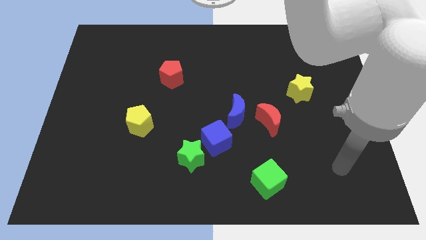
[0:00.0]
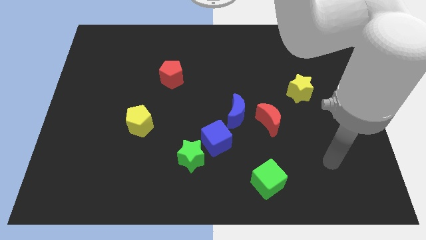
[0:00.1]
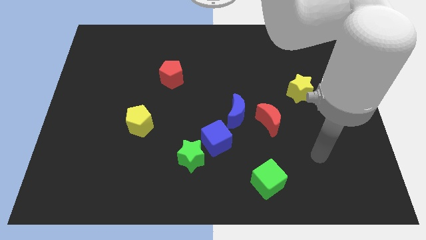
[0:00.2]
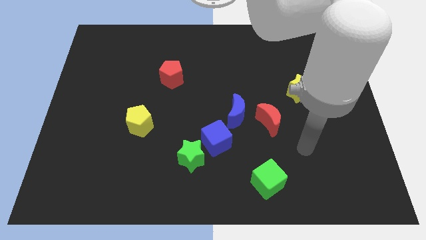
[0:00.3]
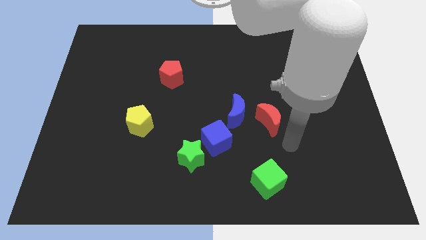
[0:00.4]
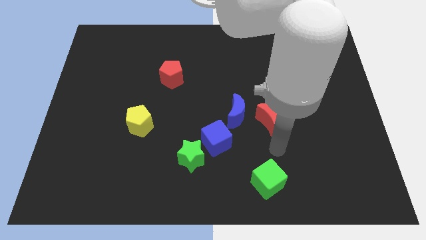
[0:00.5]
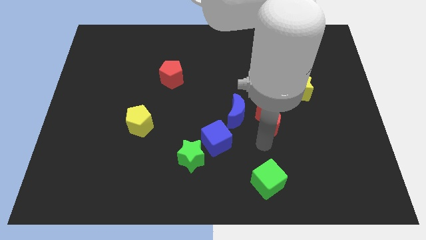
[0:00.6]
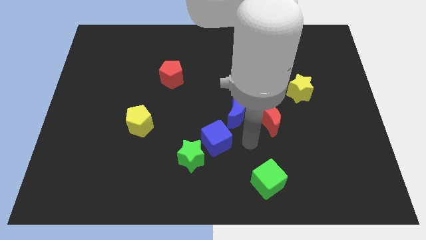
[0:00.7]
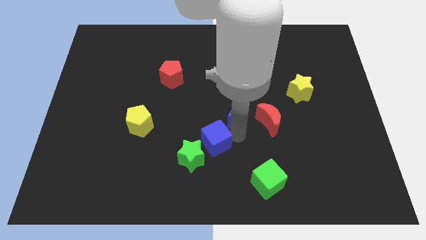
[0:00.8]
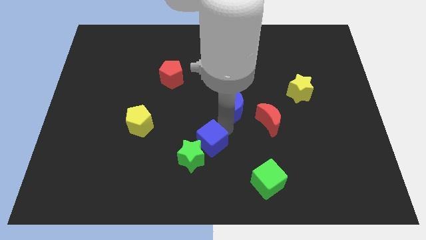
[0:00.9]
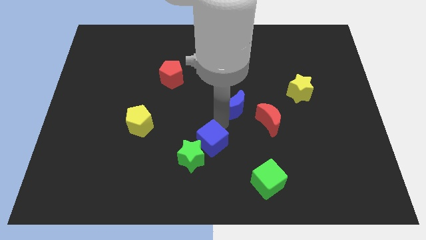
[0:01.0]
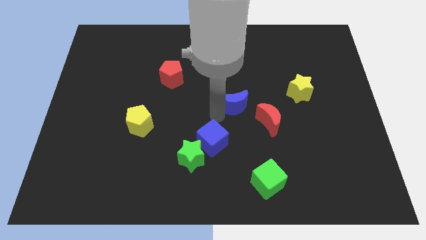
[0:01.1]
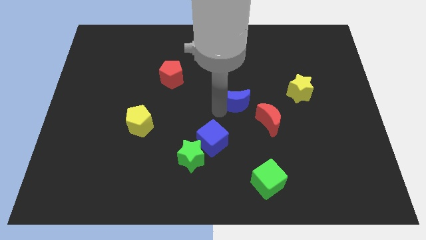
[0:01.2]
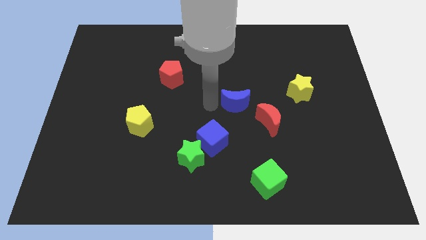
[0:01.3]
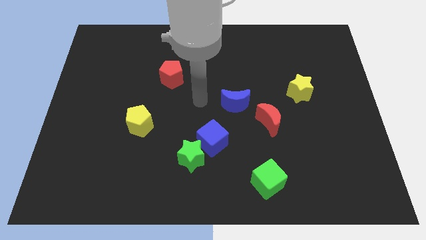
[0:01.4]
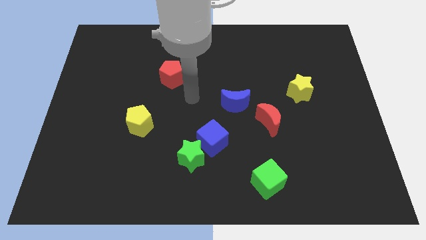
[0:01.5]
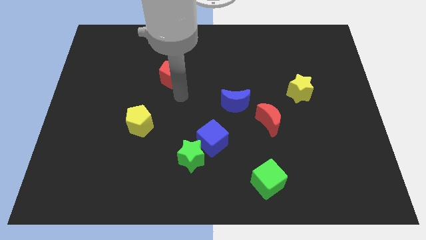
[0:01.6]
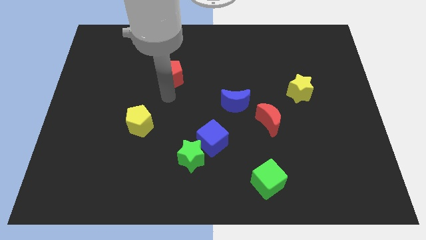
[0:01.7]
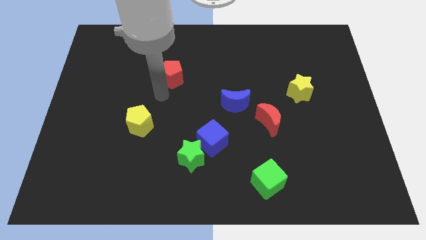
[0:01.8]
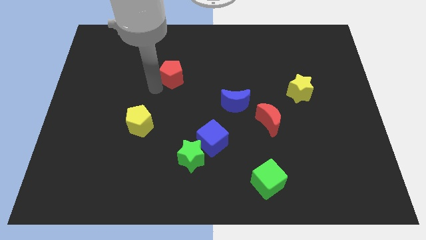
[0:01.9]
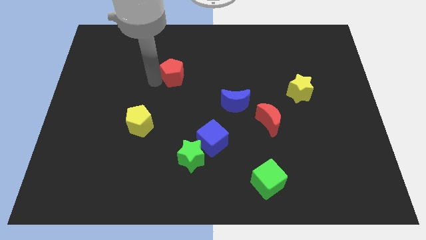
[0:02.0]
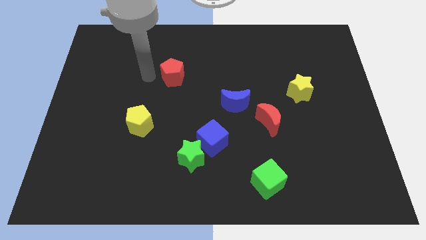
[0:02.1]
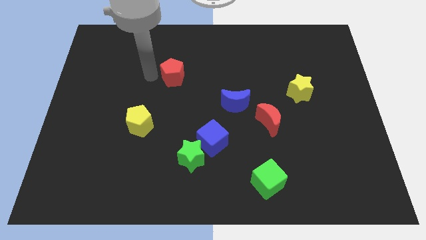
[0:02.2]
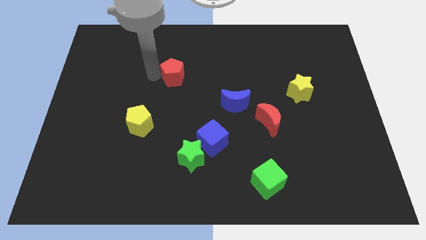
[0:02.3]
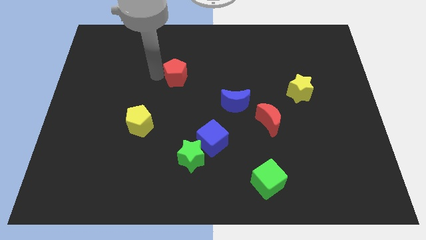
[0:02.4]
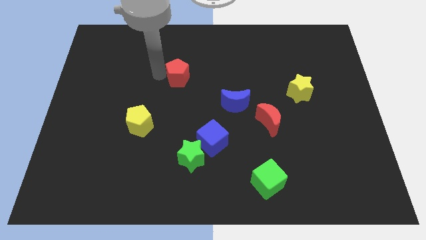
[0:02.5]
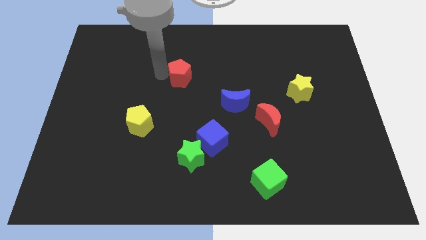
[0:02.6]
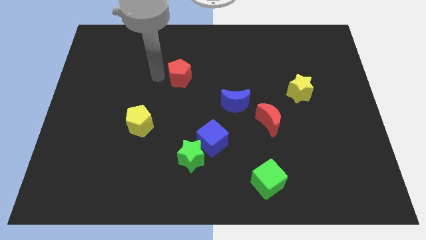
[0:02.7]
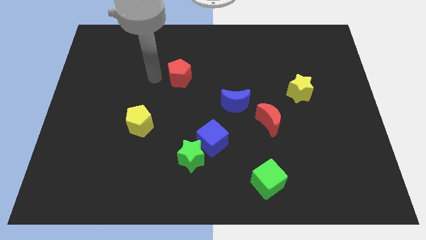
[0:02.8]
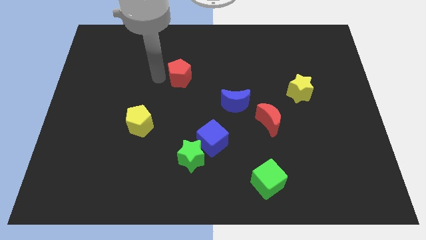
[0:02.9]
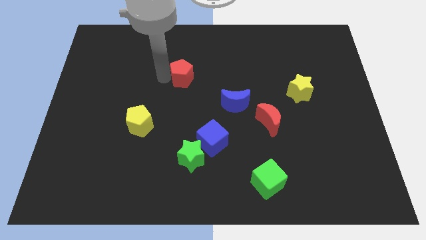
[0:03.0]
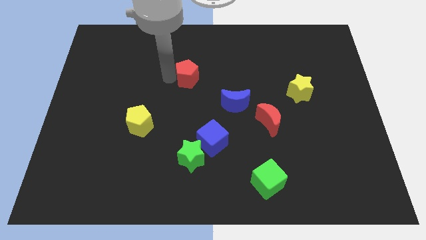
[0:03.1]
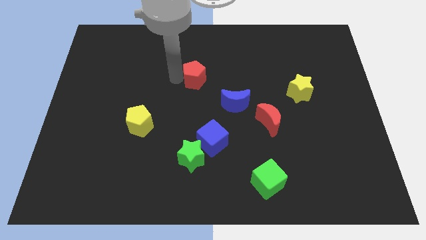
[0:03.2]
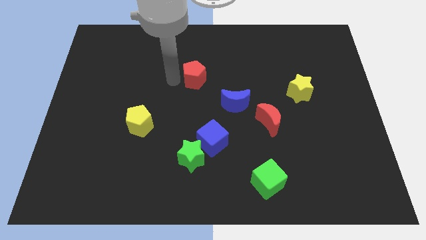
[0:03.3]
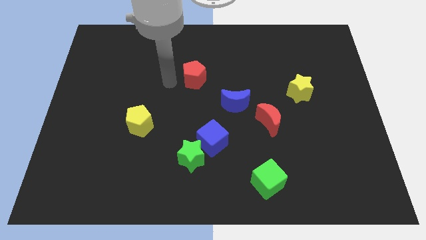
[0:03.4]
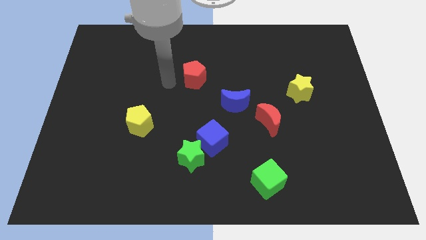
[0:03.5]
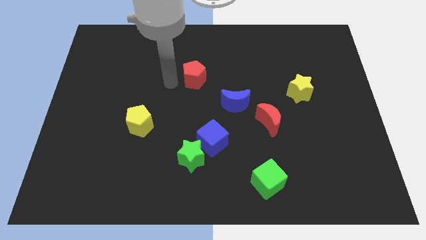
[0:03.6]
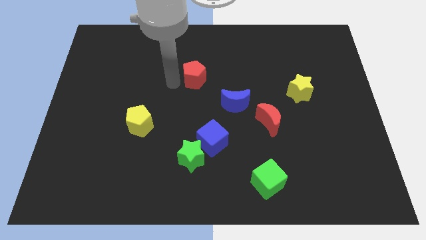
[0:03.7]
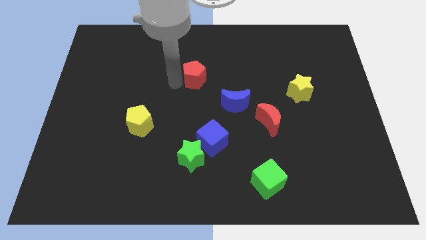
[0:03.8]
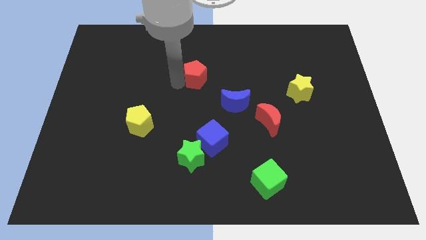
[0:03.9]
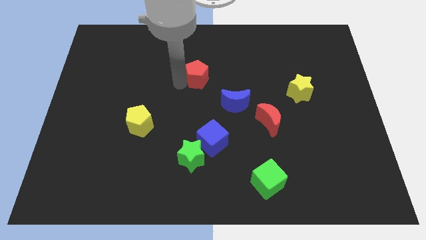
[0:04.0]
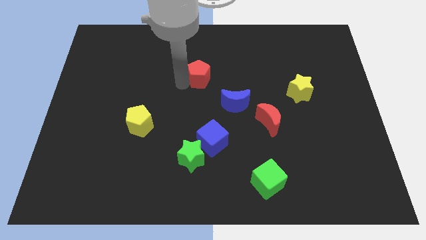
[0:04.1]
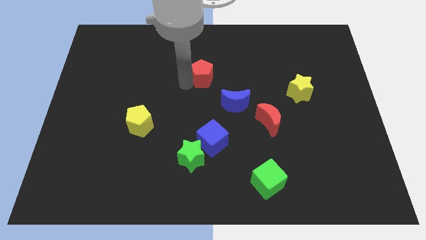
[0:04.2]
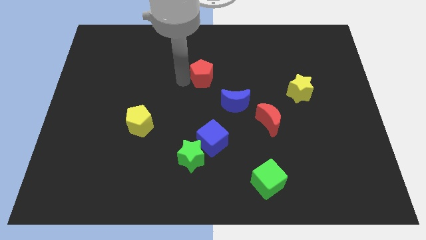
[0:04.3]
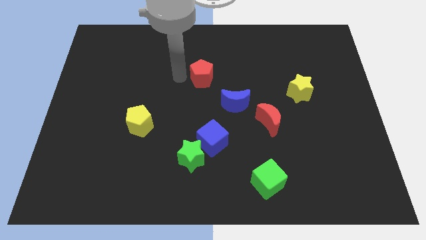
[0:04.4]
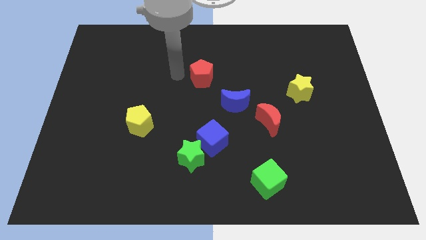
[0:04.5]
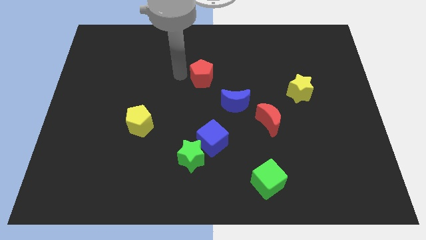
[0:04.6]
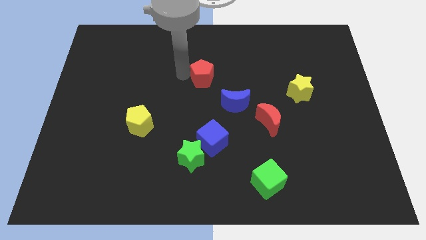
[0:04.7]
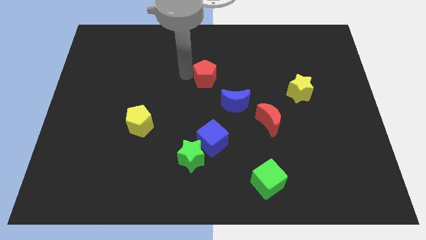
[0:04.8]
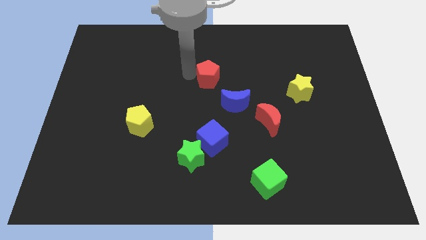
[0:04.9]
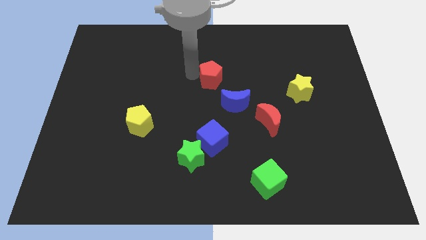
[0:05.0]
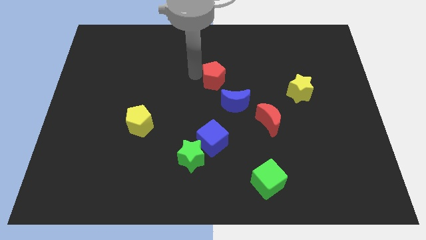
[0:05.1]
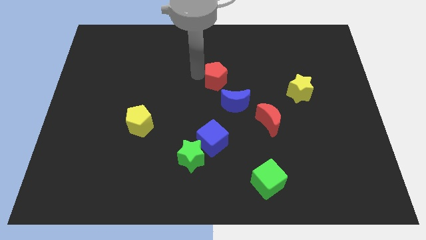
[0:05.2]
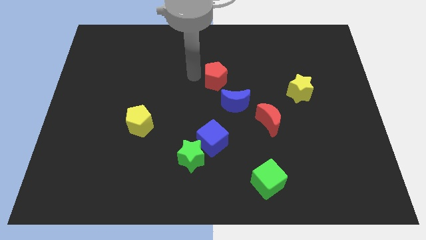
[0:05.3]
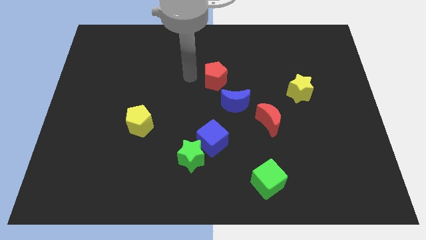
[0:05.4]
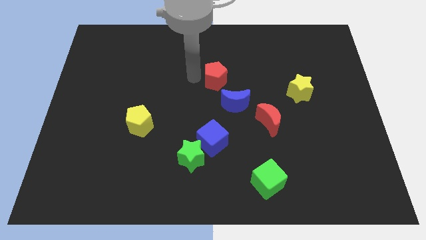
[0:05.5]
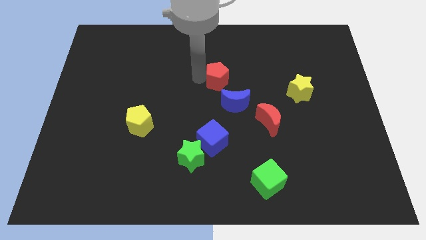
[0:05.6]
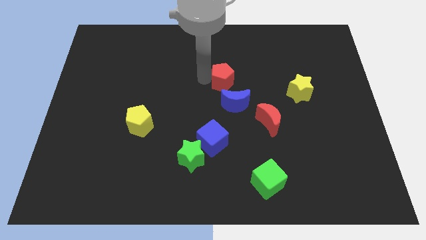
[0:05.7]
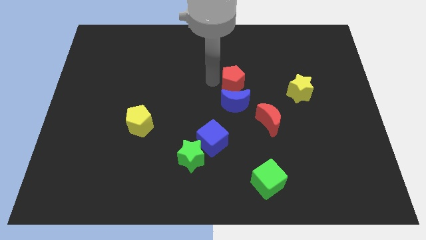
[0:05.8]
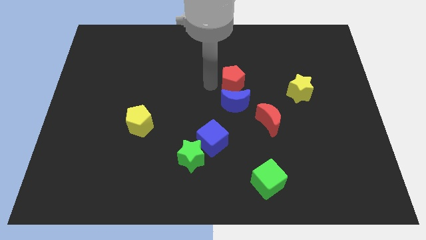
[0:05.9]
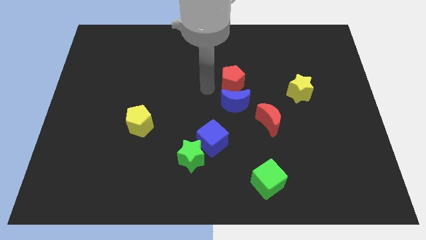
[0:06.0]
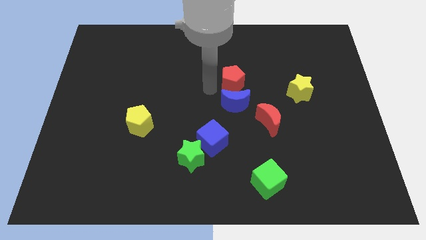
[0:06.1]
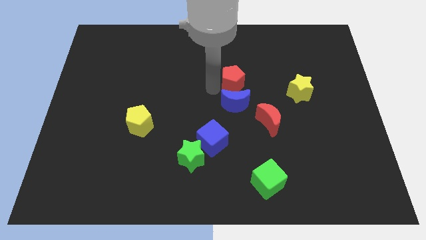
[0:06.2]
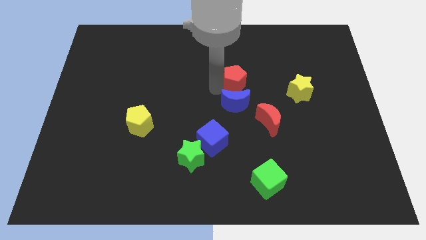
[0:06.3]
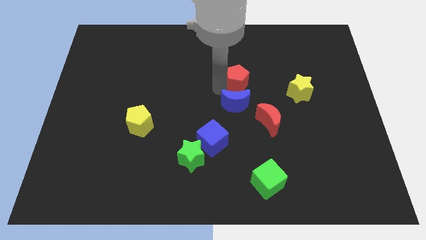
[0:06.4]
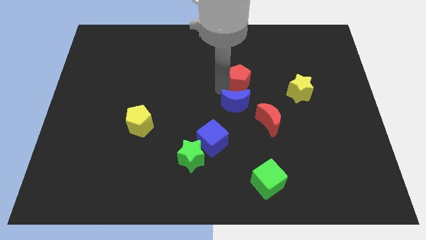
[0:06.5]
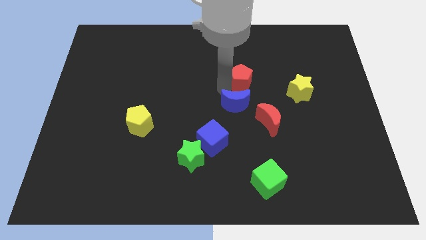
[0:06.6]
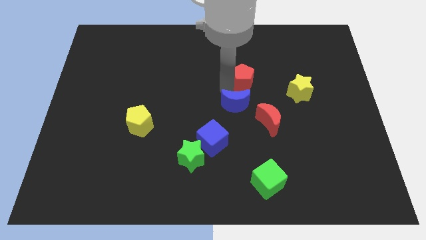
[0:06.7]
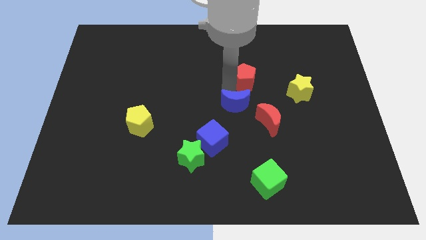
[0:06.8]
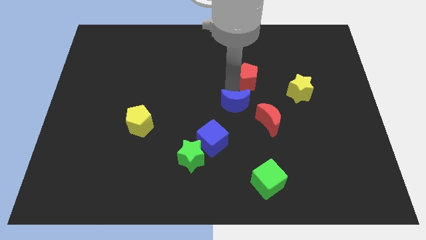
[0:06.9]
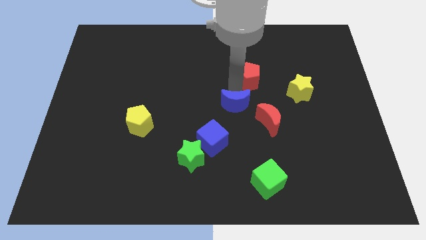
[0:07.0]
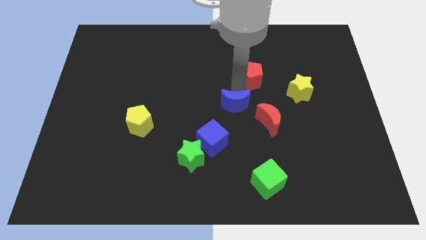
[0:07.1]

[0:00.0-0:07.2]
move the red pentagon right

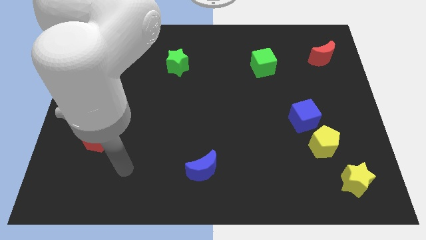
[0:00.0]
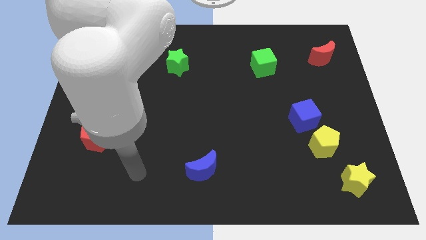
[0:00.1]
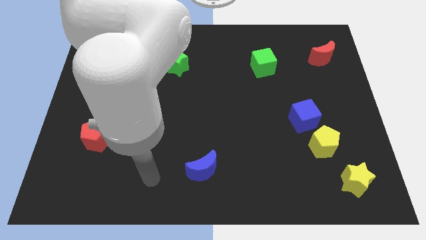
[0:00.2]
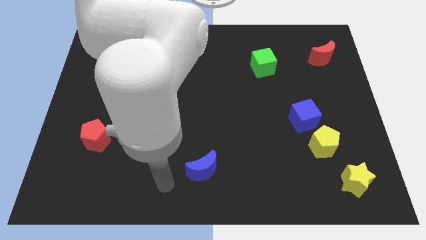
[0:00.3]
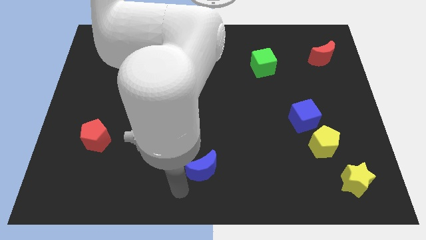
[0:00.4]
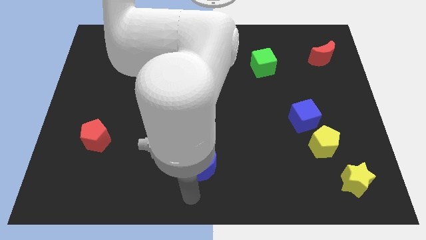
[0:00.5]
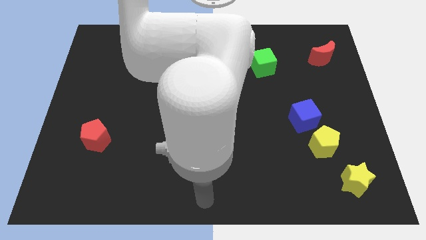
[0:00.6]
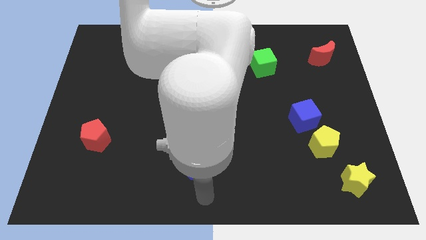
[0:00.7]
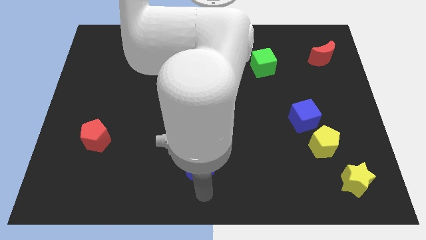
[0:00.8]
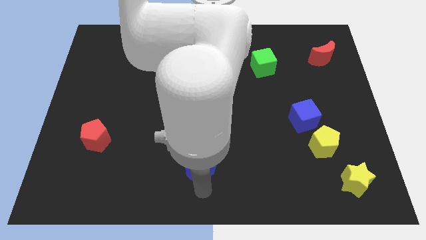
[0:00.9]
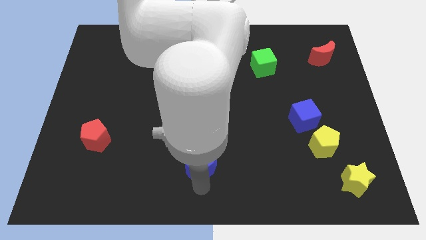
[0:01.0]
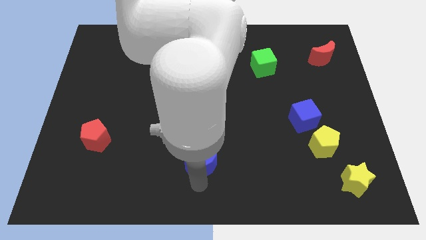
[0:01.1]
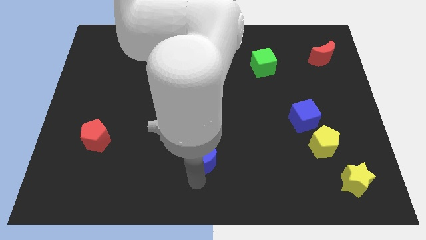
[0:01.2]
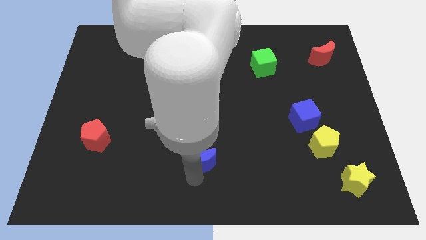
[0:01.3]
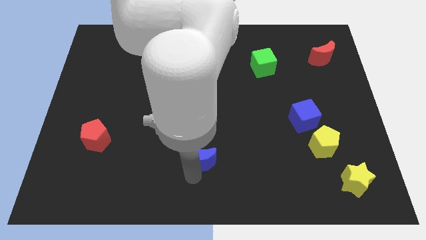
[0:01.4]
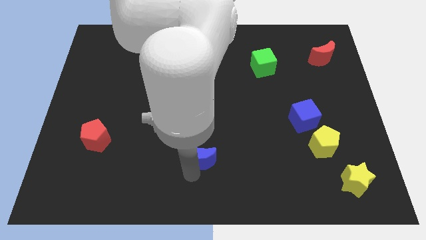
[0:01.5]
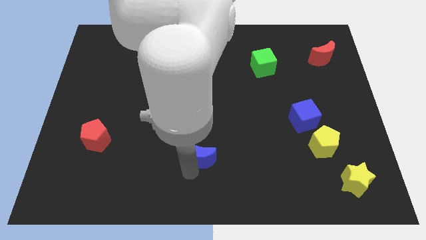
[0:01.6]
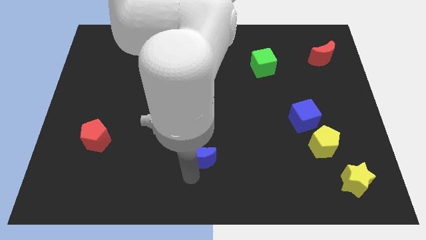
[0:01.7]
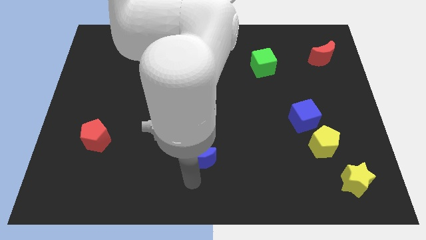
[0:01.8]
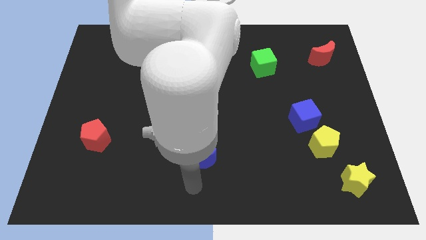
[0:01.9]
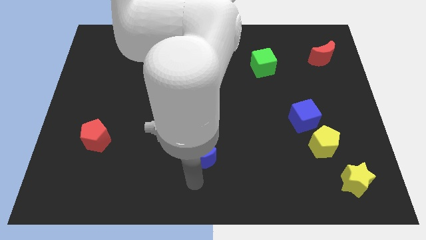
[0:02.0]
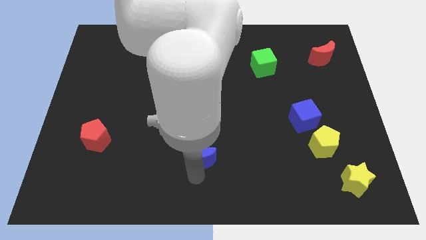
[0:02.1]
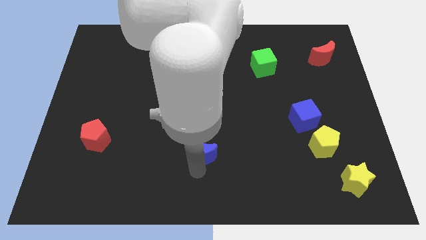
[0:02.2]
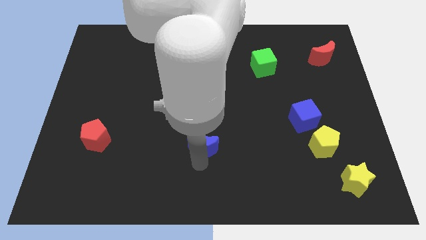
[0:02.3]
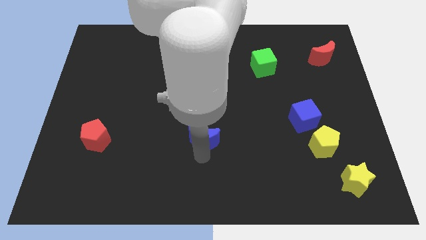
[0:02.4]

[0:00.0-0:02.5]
push the blue moon a little upwards
